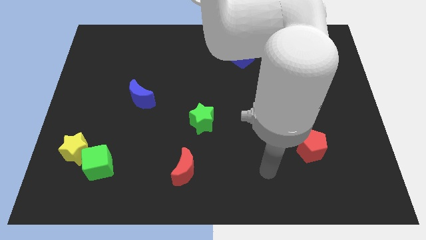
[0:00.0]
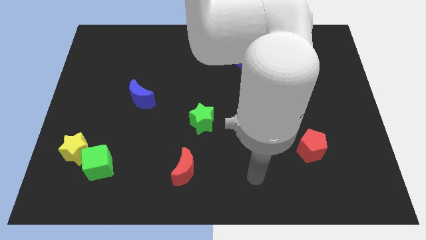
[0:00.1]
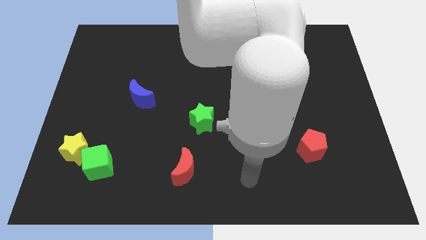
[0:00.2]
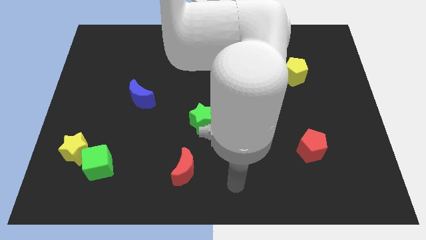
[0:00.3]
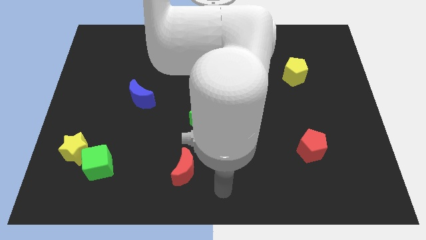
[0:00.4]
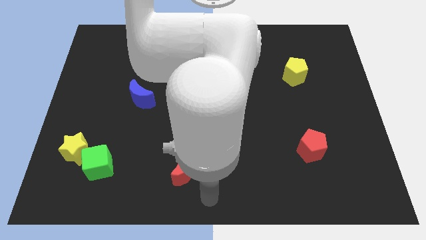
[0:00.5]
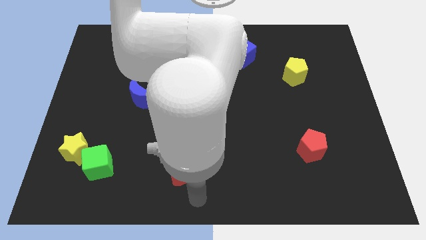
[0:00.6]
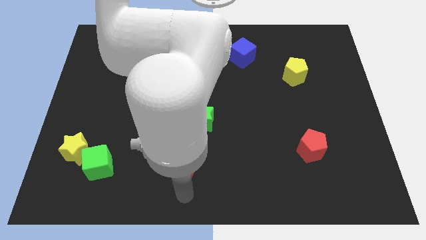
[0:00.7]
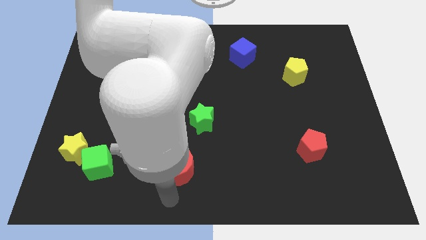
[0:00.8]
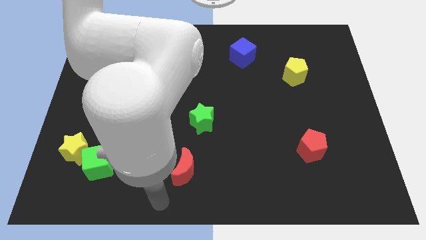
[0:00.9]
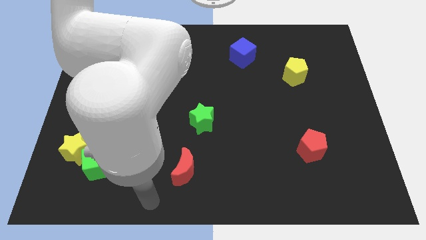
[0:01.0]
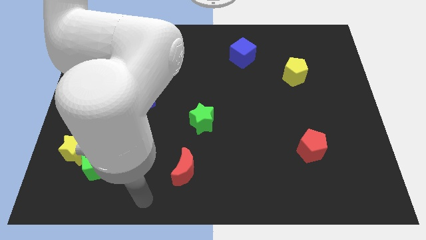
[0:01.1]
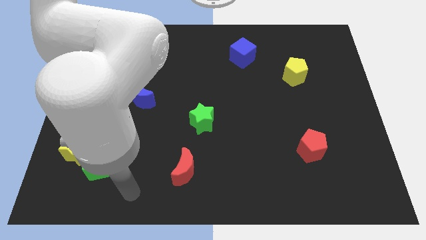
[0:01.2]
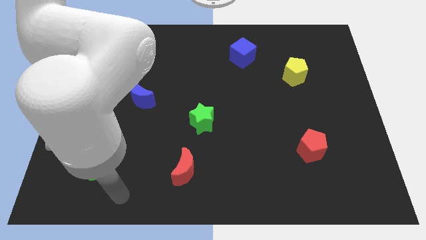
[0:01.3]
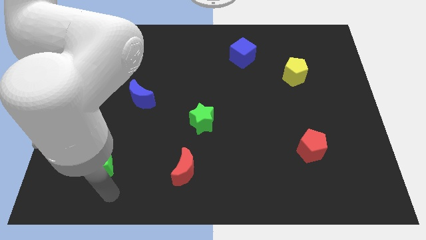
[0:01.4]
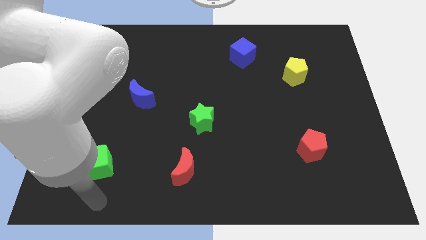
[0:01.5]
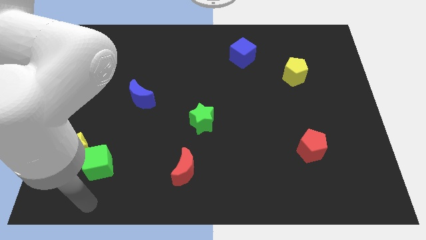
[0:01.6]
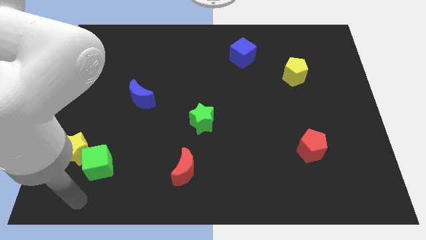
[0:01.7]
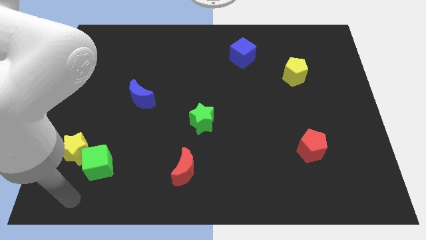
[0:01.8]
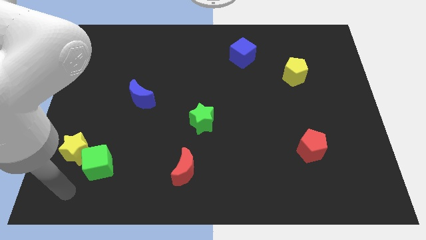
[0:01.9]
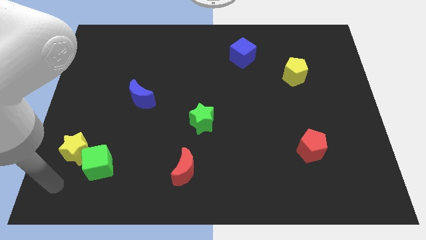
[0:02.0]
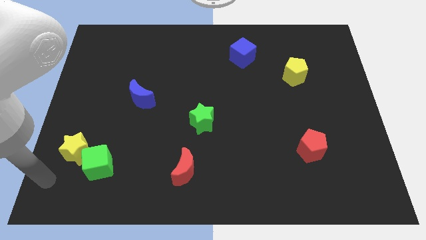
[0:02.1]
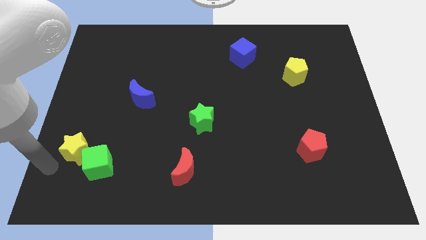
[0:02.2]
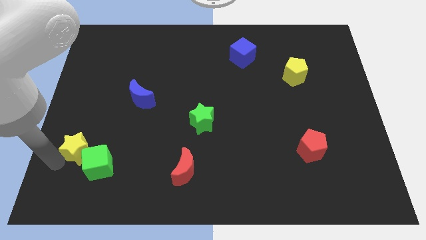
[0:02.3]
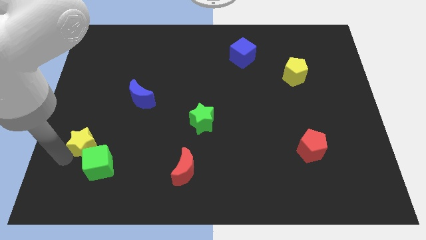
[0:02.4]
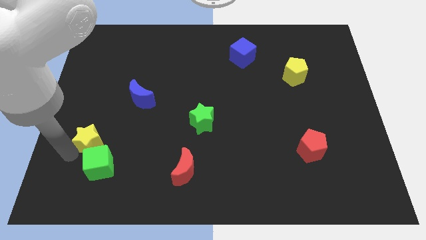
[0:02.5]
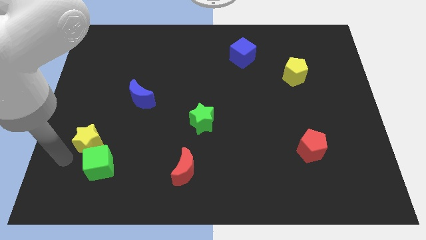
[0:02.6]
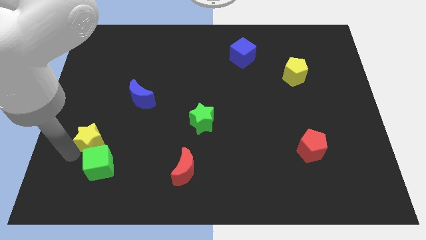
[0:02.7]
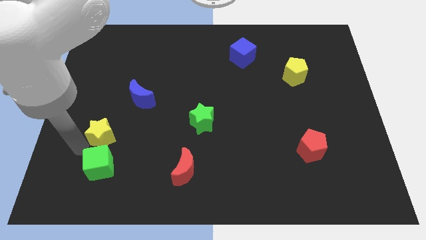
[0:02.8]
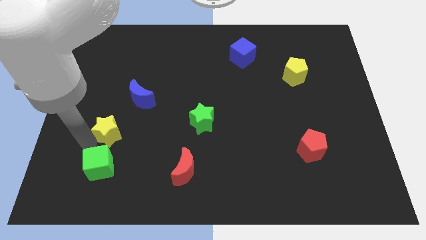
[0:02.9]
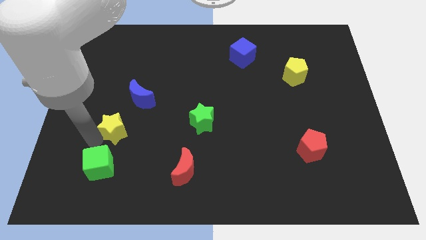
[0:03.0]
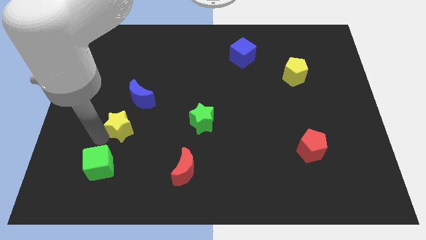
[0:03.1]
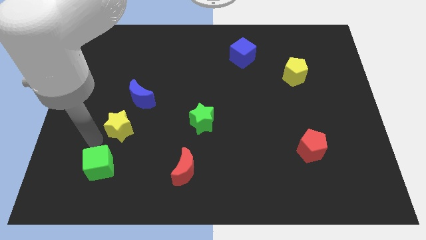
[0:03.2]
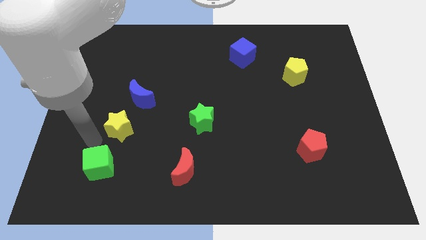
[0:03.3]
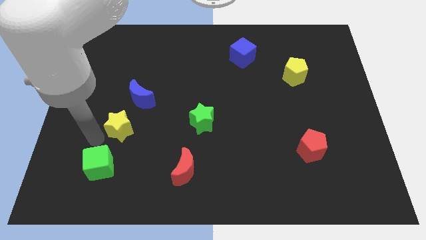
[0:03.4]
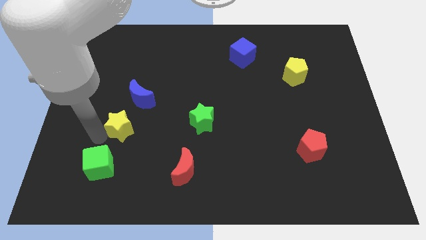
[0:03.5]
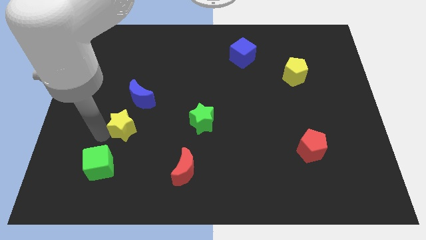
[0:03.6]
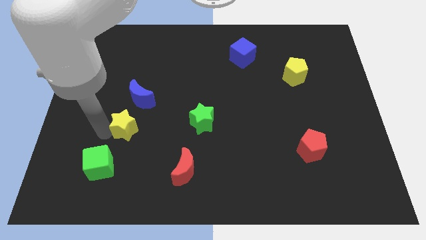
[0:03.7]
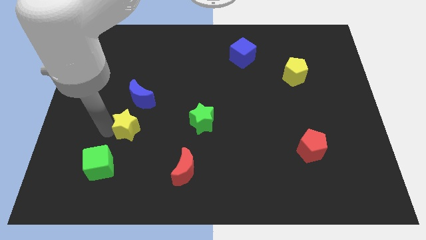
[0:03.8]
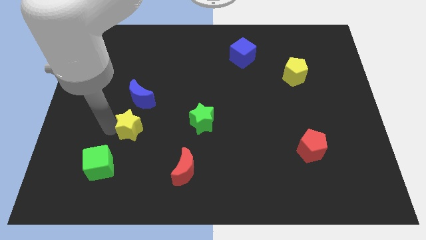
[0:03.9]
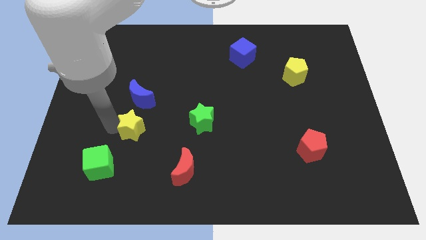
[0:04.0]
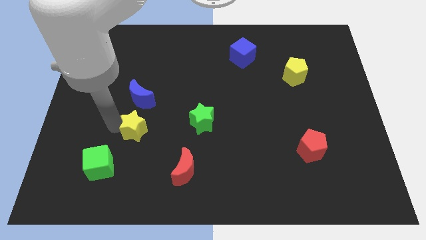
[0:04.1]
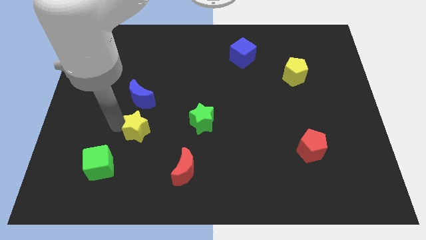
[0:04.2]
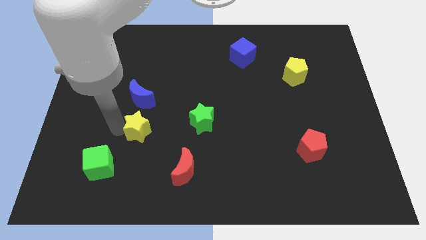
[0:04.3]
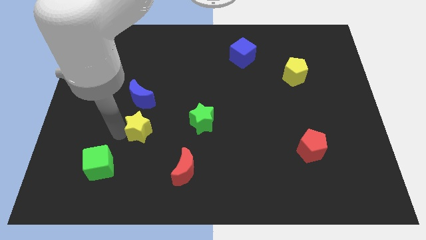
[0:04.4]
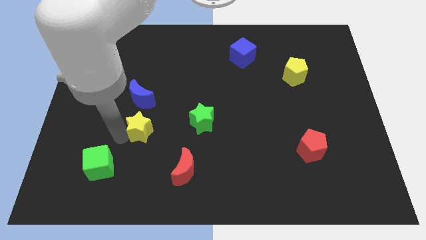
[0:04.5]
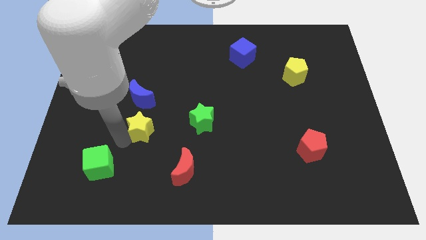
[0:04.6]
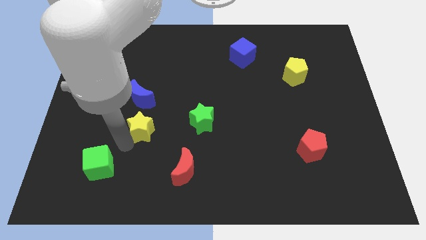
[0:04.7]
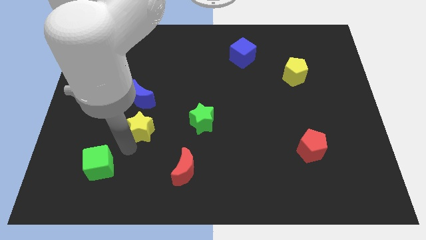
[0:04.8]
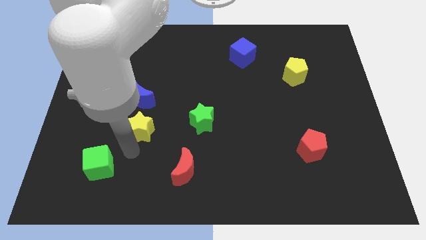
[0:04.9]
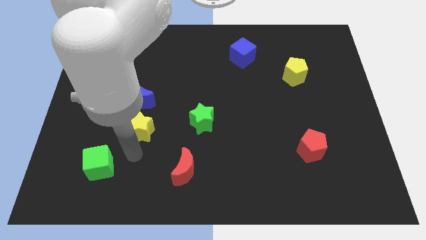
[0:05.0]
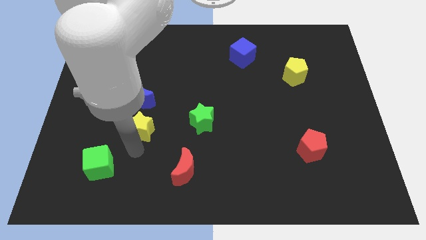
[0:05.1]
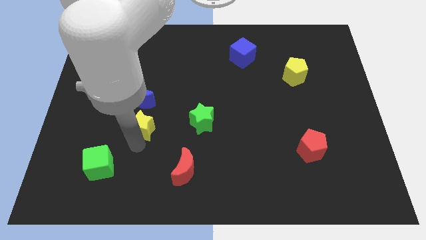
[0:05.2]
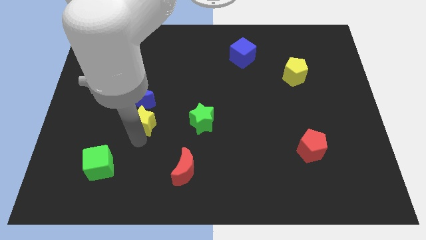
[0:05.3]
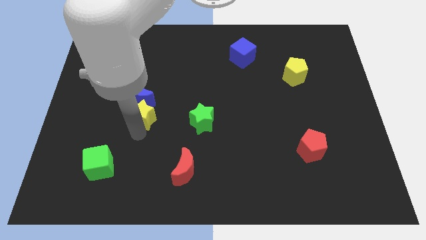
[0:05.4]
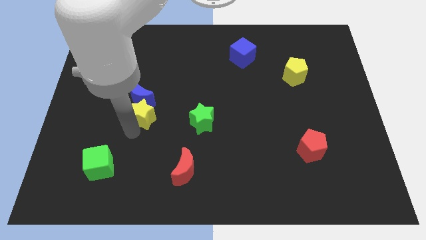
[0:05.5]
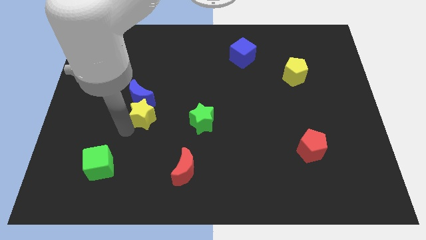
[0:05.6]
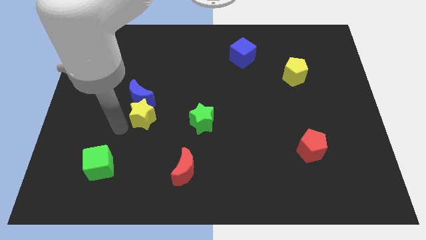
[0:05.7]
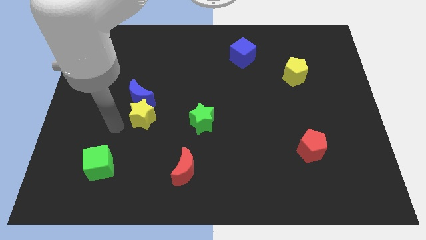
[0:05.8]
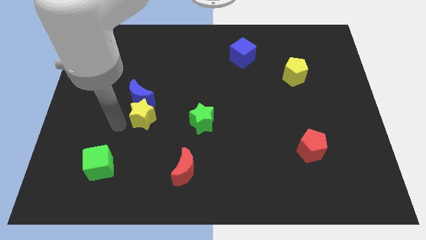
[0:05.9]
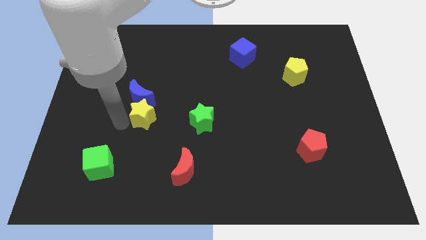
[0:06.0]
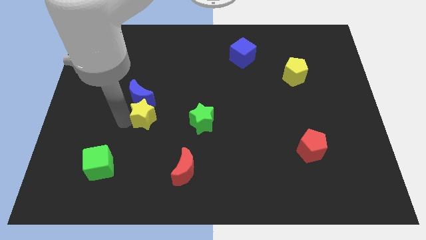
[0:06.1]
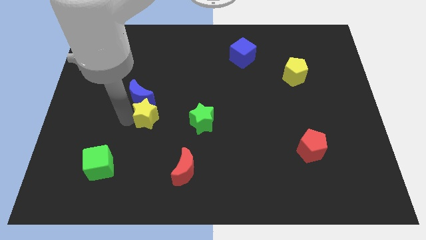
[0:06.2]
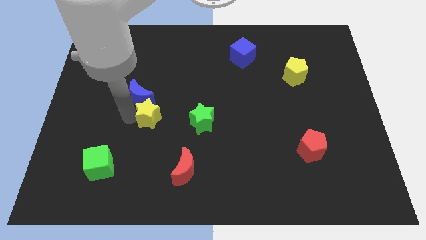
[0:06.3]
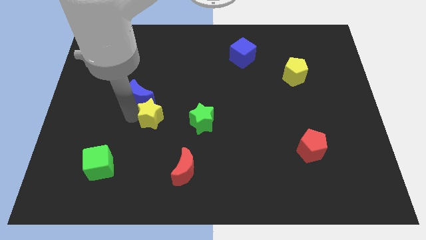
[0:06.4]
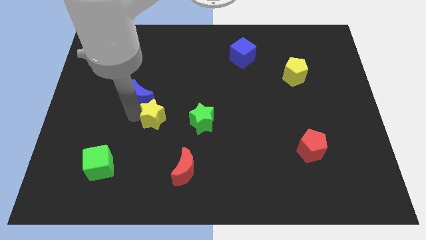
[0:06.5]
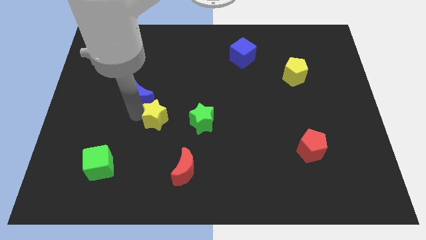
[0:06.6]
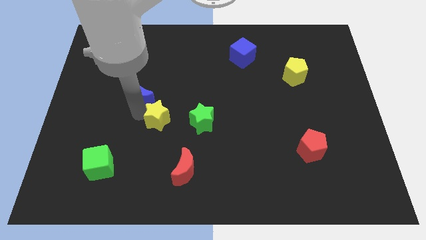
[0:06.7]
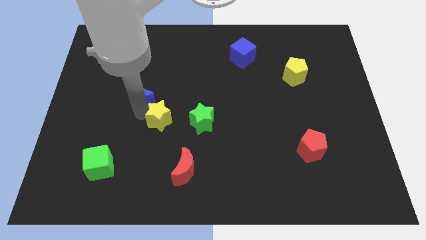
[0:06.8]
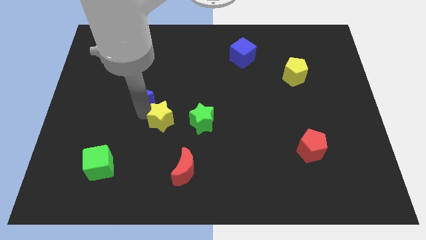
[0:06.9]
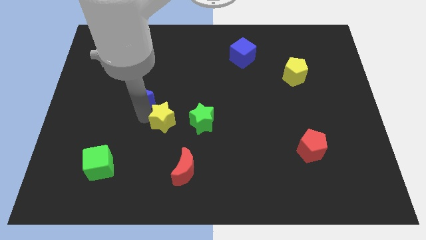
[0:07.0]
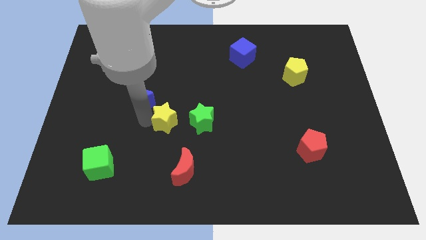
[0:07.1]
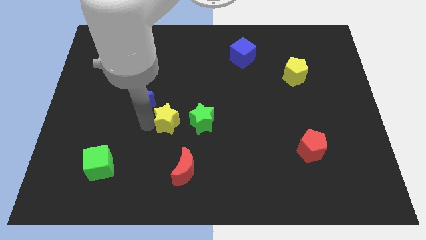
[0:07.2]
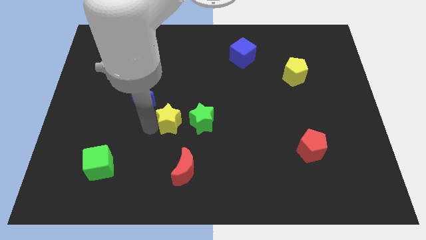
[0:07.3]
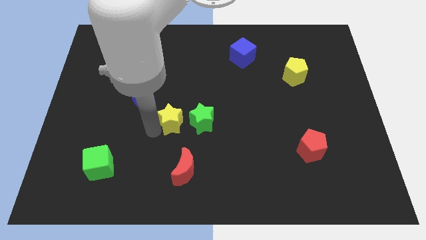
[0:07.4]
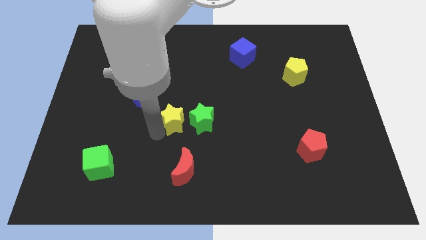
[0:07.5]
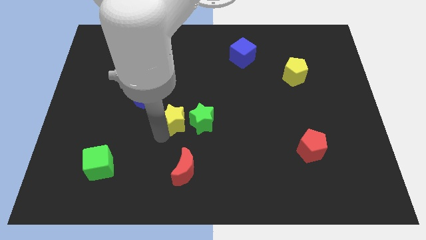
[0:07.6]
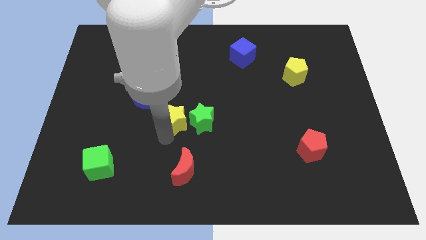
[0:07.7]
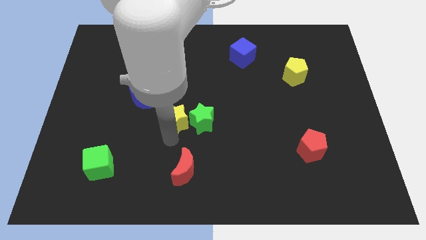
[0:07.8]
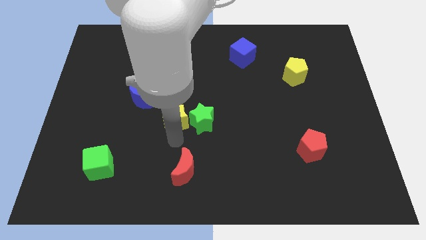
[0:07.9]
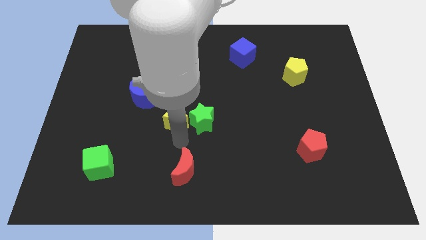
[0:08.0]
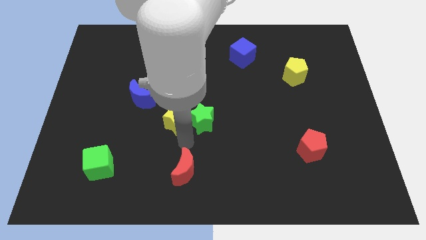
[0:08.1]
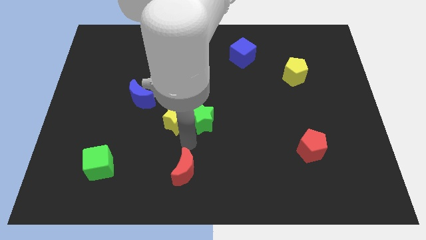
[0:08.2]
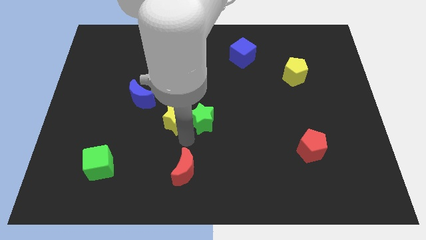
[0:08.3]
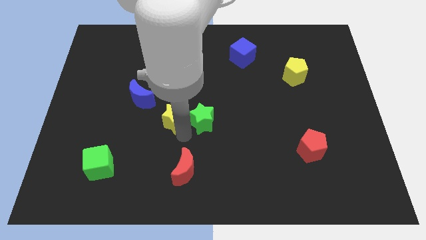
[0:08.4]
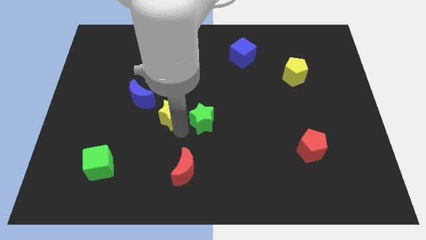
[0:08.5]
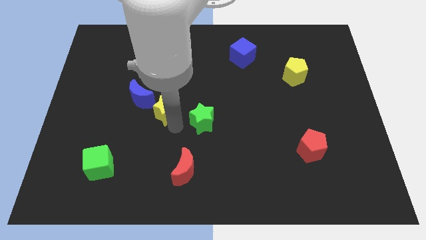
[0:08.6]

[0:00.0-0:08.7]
slide the yellow star to the right side of the blue moon

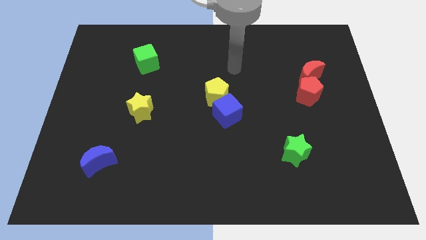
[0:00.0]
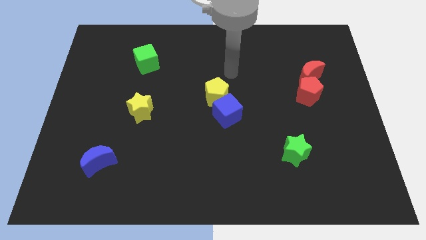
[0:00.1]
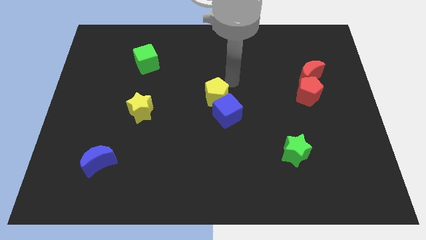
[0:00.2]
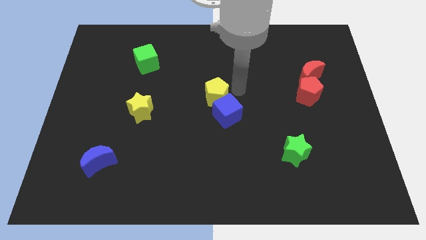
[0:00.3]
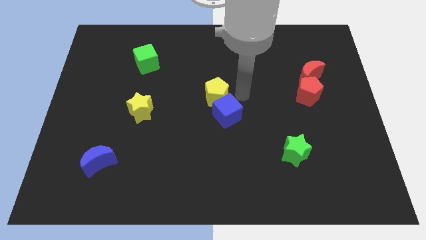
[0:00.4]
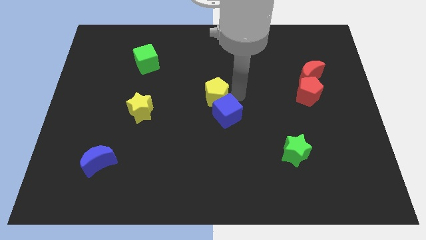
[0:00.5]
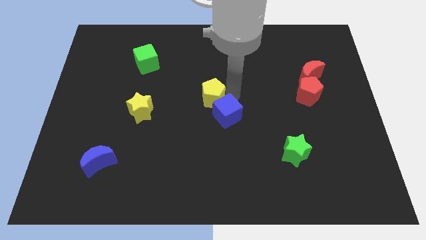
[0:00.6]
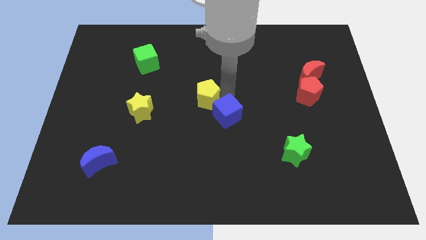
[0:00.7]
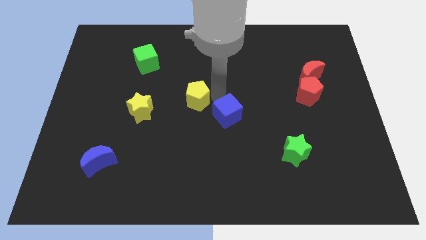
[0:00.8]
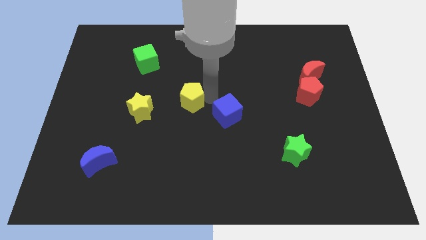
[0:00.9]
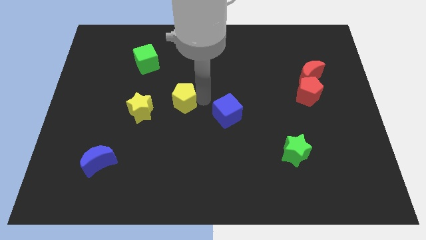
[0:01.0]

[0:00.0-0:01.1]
push the yellow pentagon diagonally up and to the right of the yellow star
